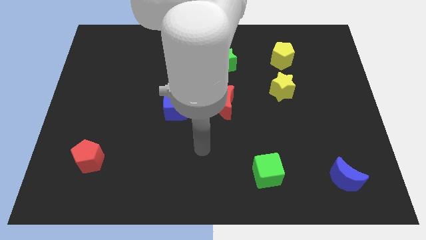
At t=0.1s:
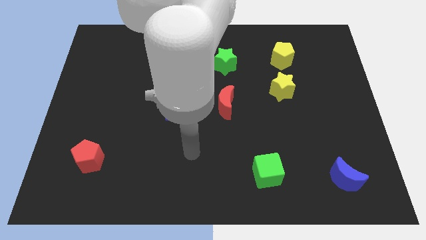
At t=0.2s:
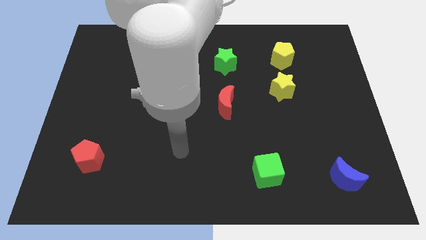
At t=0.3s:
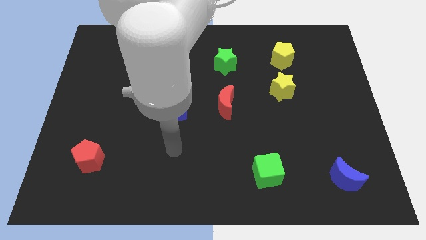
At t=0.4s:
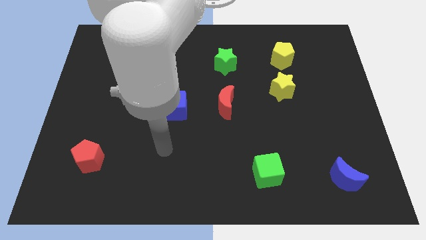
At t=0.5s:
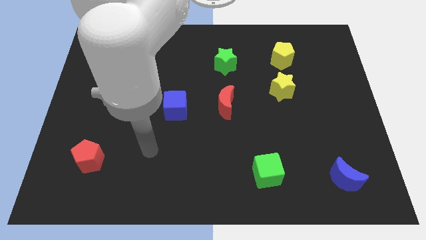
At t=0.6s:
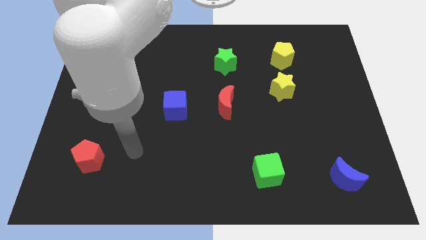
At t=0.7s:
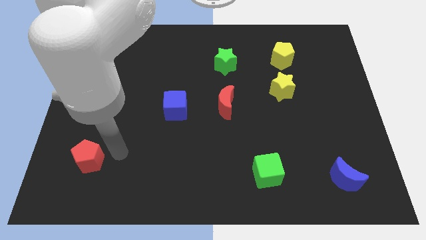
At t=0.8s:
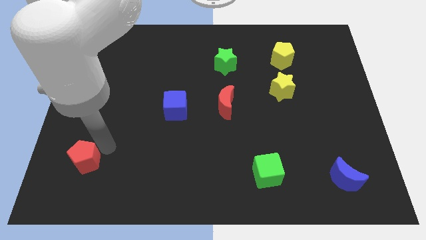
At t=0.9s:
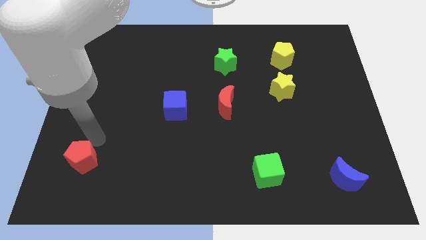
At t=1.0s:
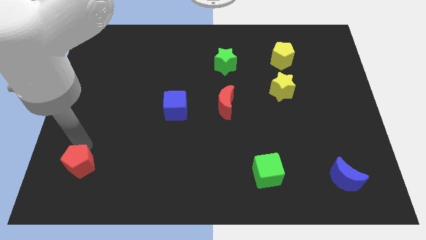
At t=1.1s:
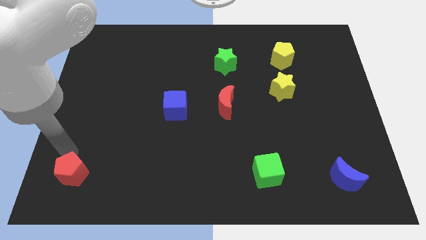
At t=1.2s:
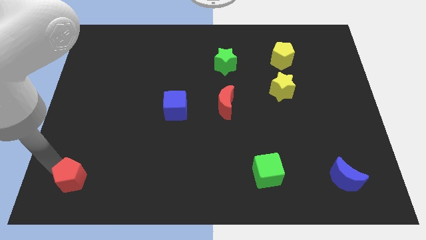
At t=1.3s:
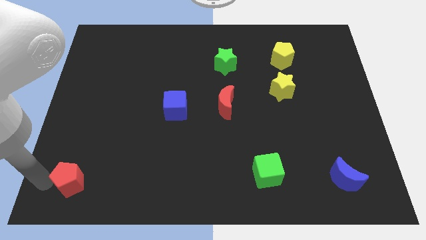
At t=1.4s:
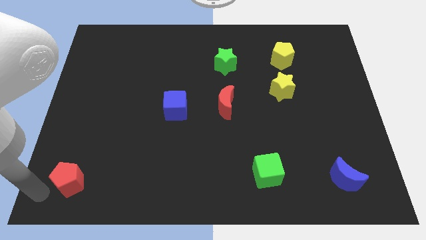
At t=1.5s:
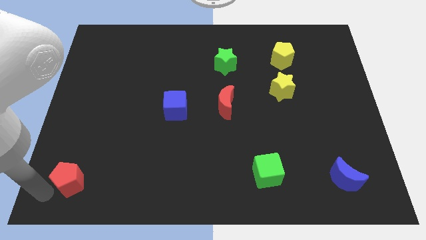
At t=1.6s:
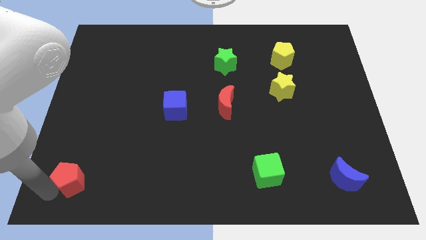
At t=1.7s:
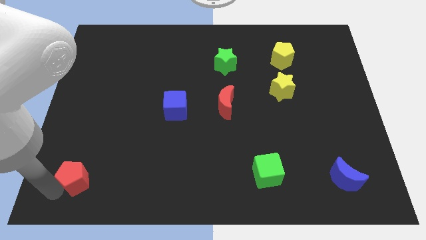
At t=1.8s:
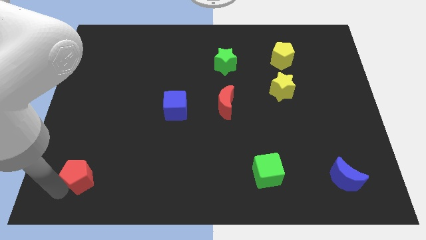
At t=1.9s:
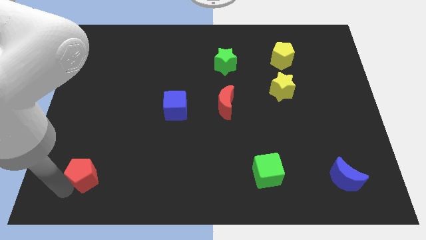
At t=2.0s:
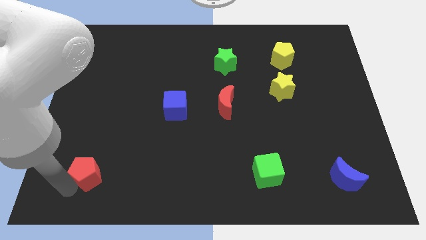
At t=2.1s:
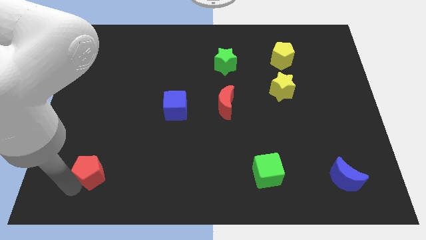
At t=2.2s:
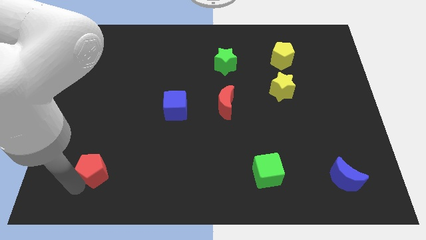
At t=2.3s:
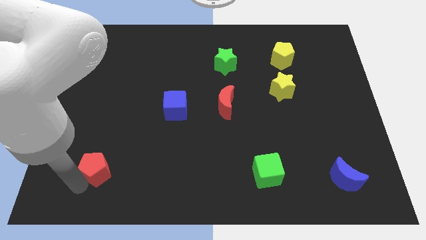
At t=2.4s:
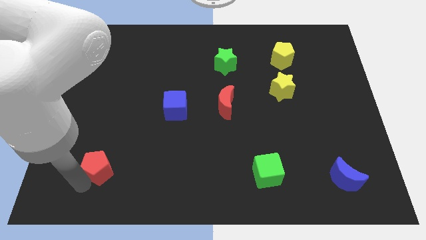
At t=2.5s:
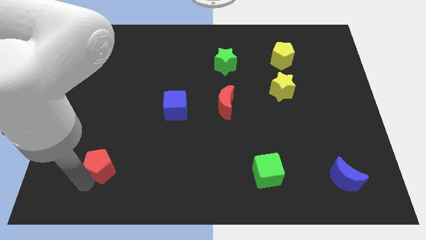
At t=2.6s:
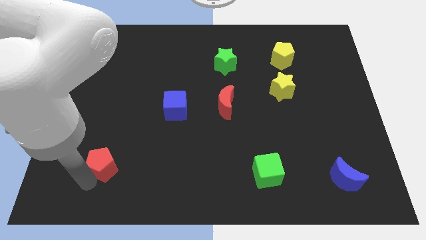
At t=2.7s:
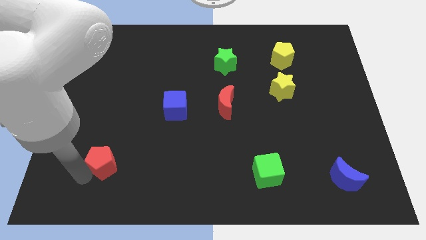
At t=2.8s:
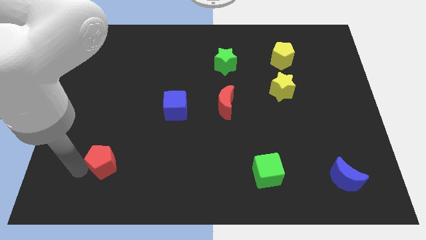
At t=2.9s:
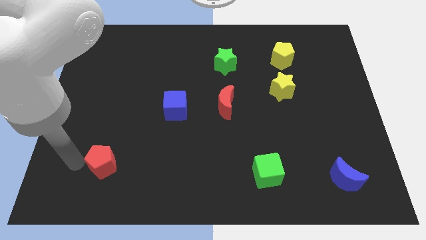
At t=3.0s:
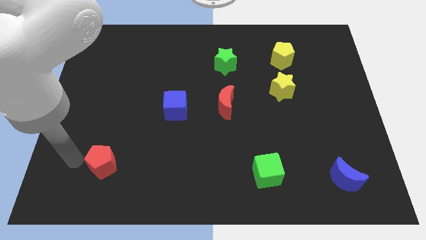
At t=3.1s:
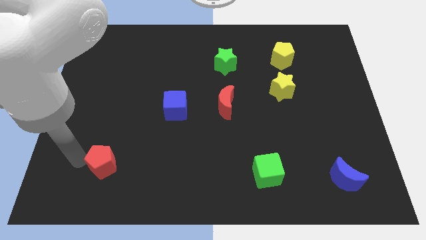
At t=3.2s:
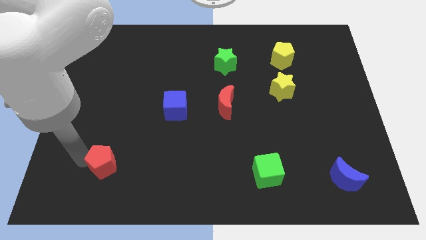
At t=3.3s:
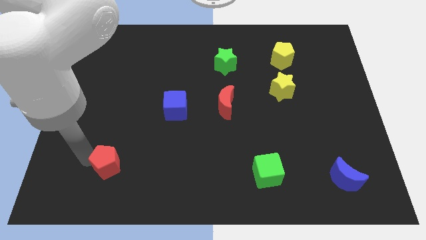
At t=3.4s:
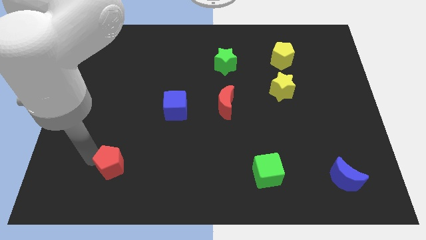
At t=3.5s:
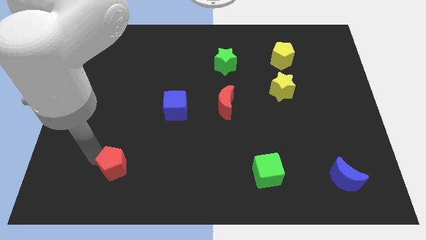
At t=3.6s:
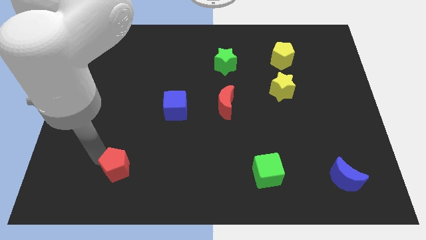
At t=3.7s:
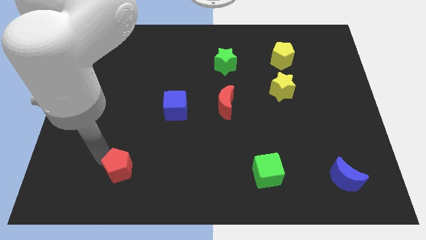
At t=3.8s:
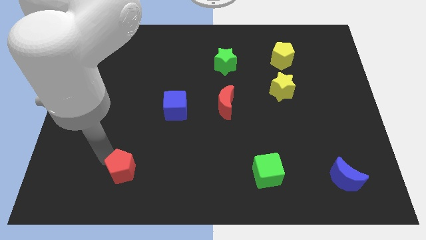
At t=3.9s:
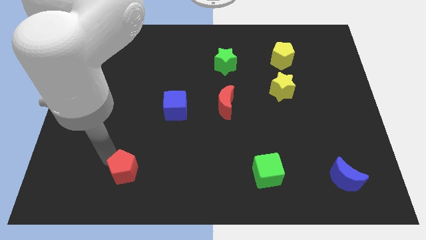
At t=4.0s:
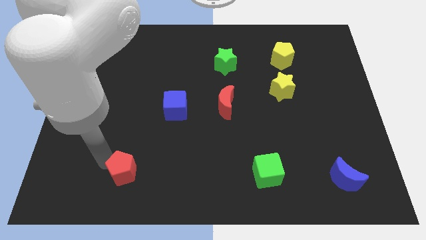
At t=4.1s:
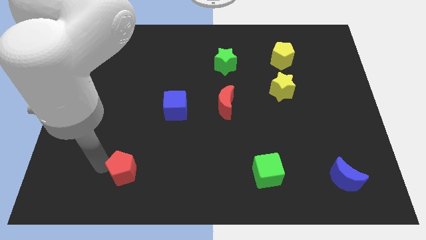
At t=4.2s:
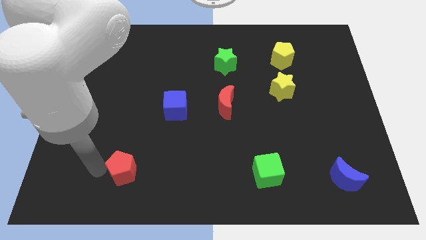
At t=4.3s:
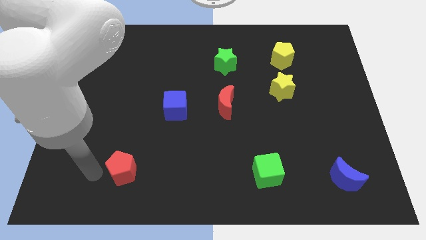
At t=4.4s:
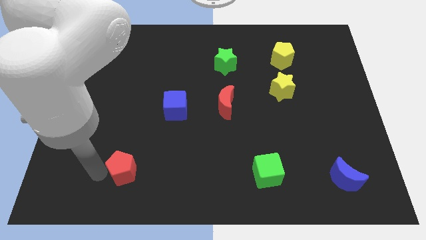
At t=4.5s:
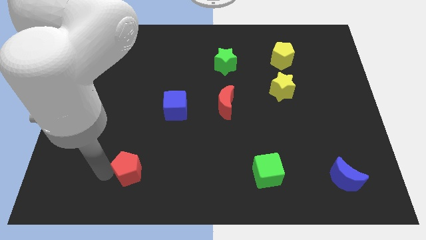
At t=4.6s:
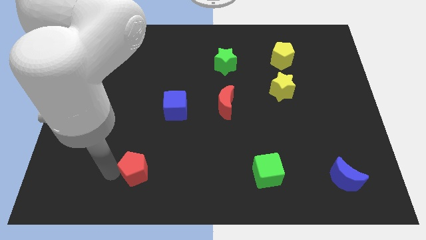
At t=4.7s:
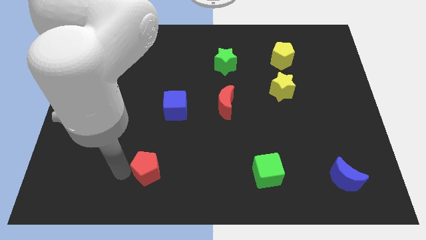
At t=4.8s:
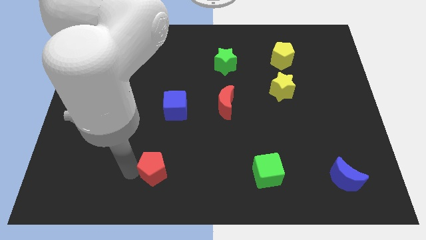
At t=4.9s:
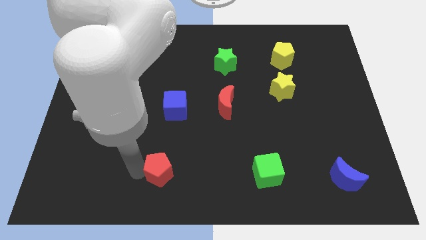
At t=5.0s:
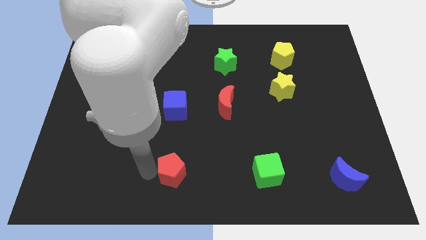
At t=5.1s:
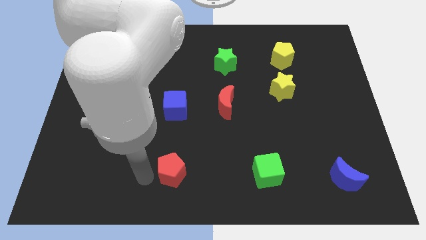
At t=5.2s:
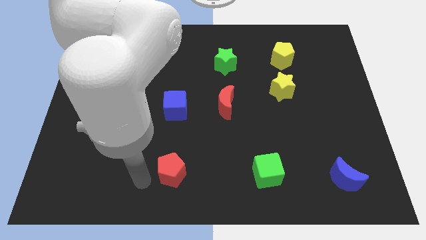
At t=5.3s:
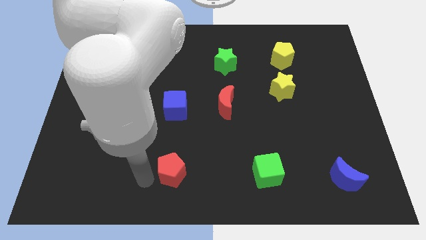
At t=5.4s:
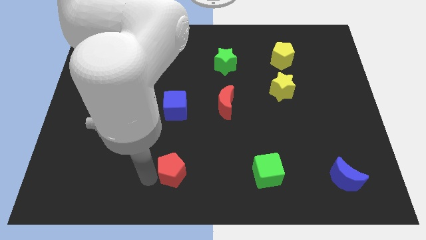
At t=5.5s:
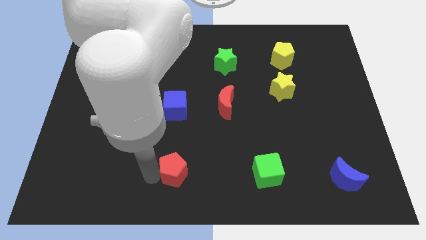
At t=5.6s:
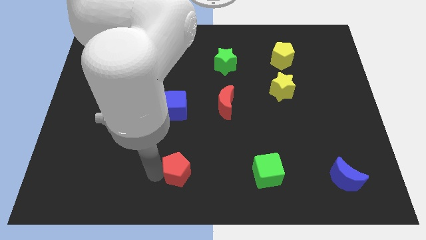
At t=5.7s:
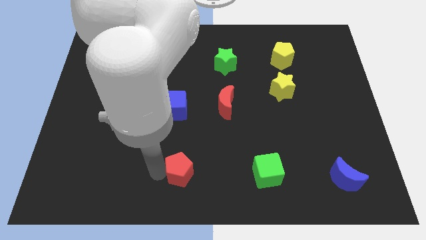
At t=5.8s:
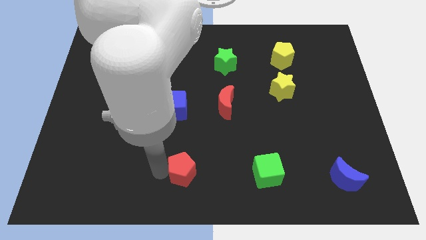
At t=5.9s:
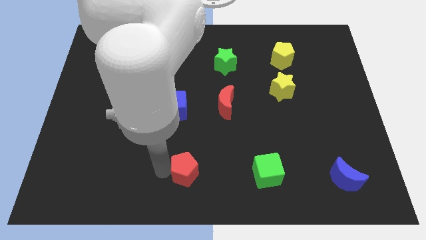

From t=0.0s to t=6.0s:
slide the red pentagon right

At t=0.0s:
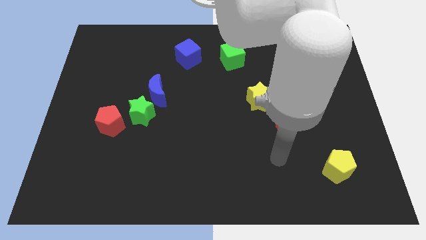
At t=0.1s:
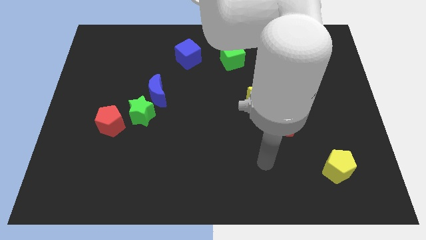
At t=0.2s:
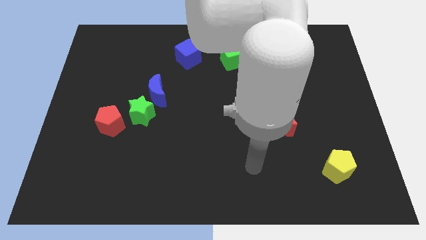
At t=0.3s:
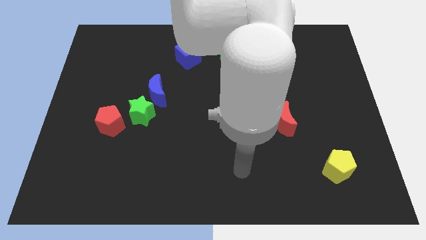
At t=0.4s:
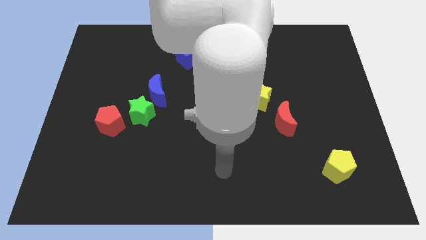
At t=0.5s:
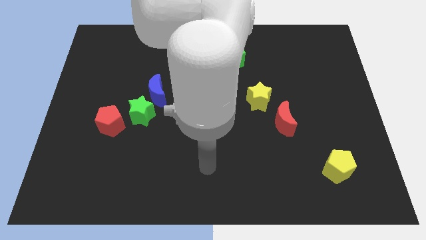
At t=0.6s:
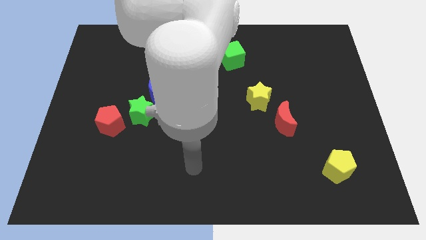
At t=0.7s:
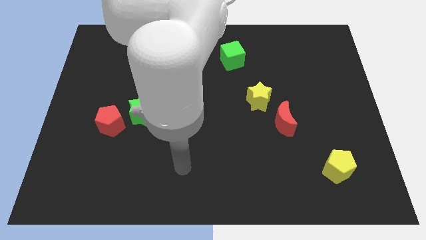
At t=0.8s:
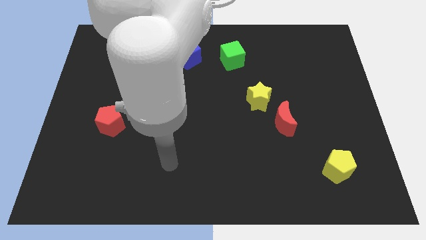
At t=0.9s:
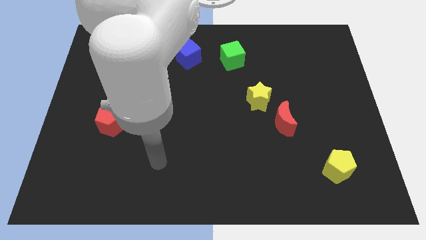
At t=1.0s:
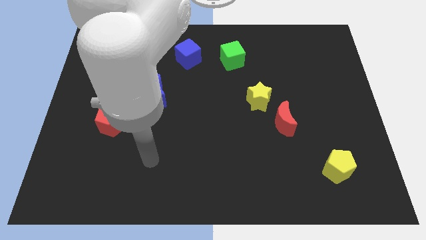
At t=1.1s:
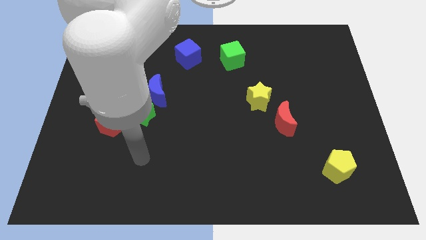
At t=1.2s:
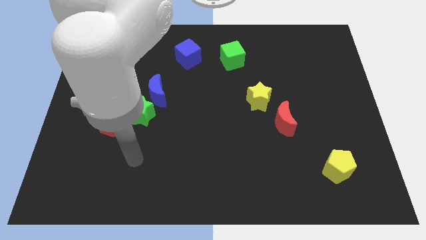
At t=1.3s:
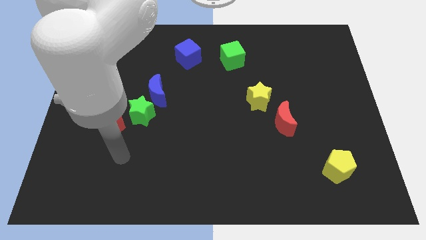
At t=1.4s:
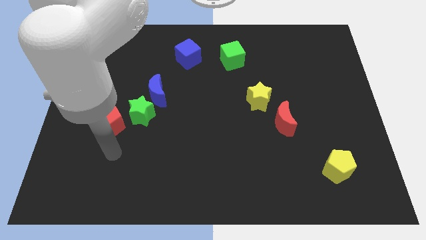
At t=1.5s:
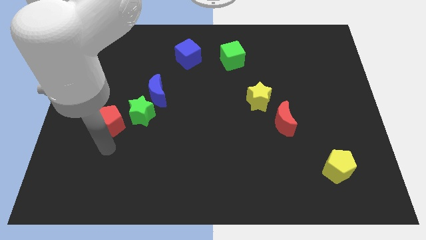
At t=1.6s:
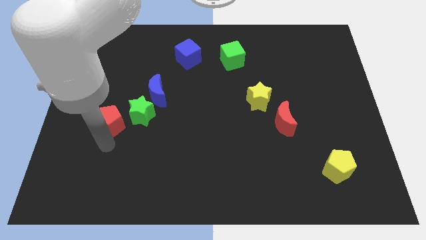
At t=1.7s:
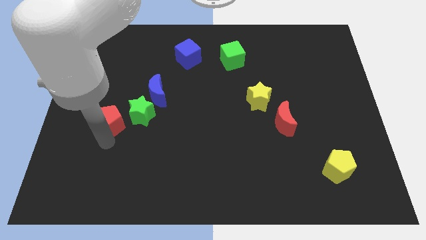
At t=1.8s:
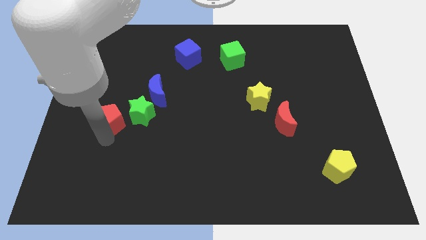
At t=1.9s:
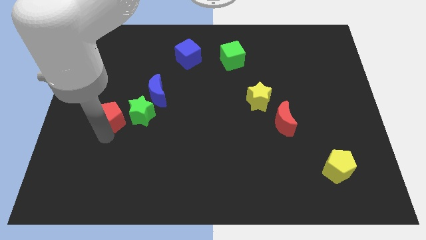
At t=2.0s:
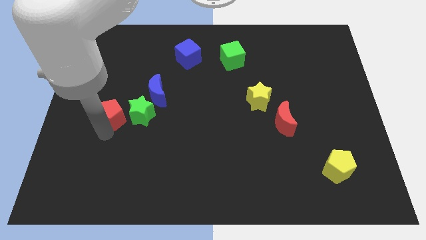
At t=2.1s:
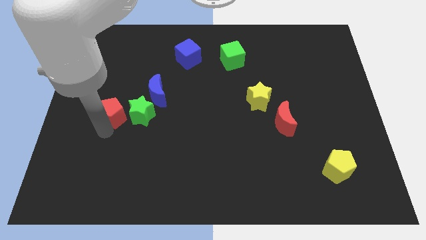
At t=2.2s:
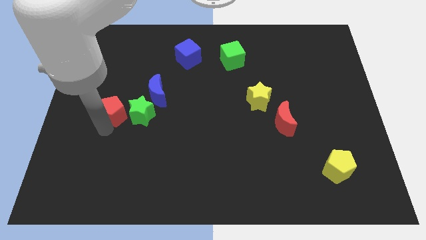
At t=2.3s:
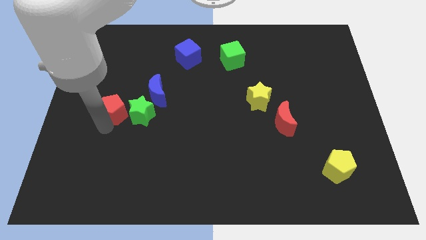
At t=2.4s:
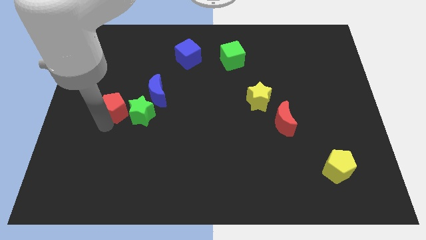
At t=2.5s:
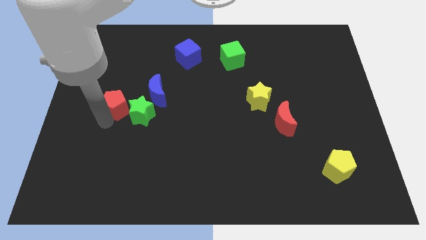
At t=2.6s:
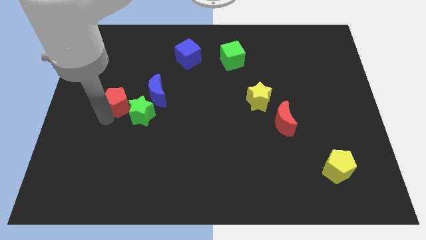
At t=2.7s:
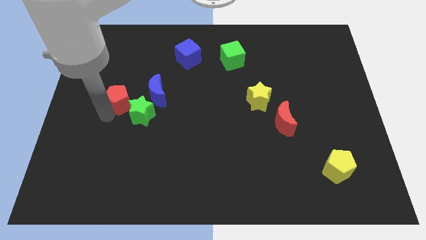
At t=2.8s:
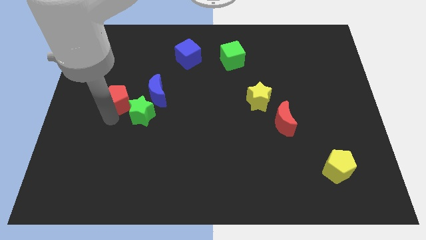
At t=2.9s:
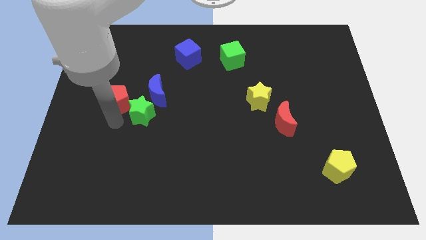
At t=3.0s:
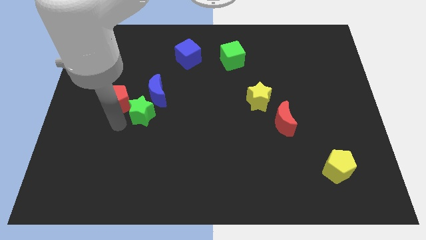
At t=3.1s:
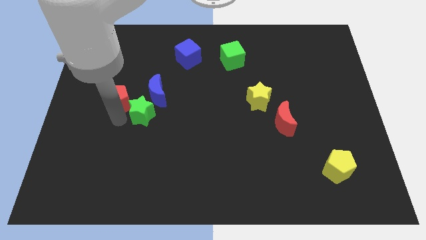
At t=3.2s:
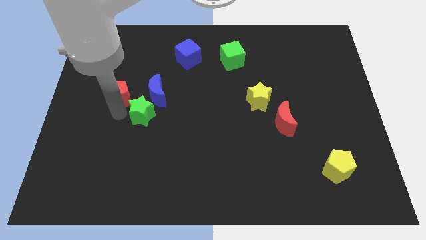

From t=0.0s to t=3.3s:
slightly push the red pentagon upwards
